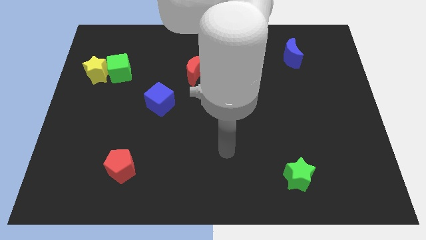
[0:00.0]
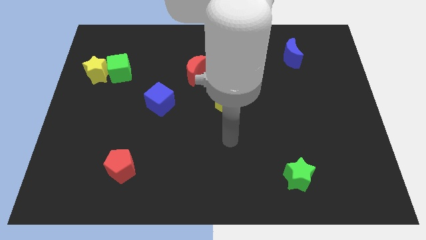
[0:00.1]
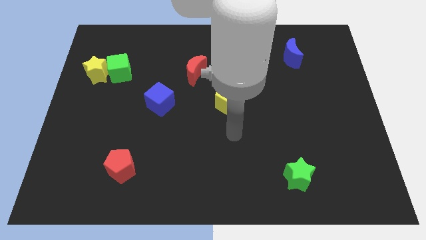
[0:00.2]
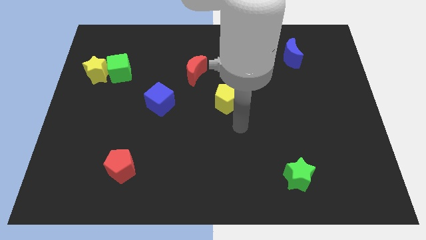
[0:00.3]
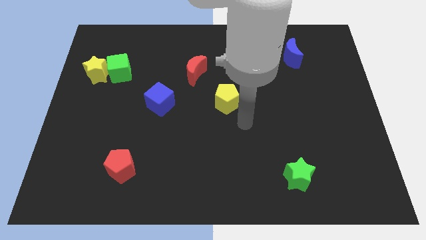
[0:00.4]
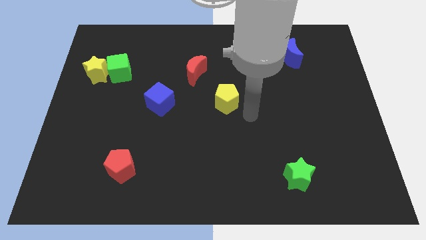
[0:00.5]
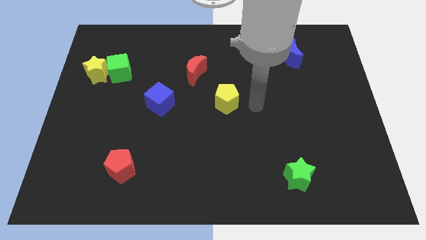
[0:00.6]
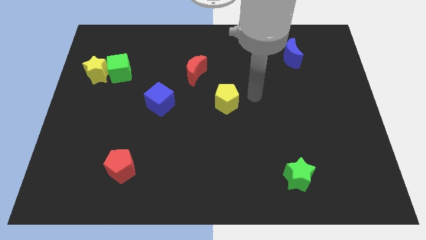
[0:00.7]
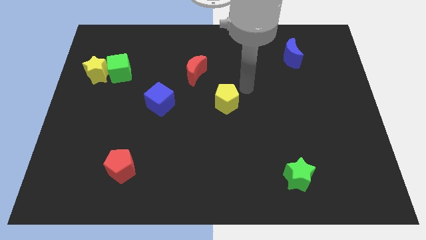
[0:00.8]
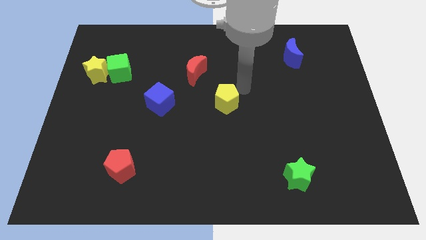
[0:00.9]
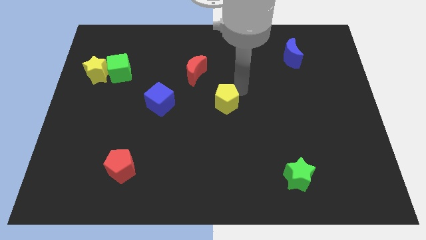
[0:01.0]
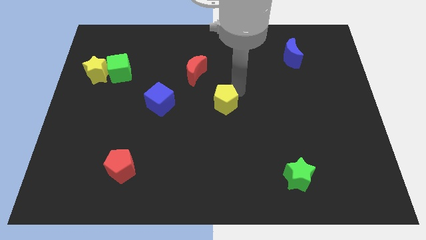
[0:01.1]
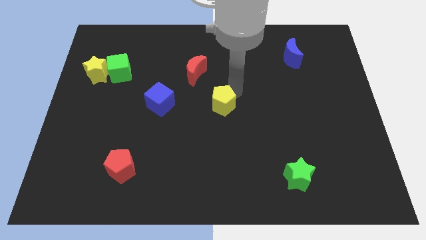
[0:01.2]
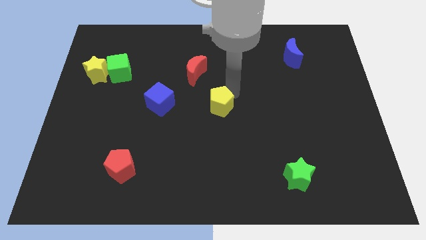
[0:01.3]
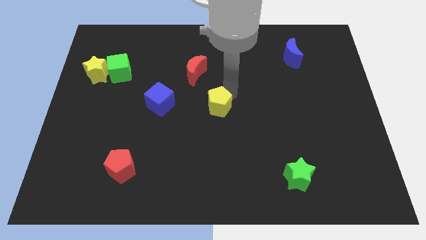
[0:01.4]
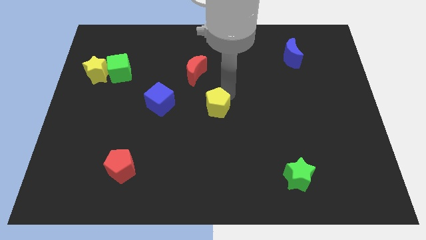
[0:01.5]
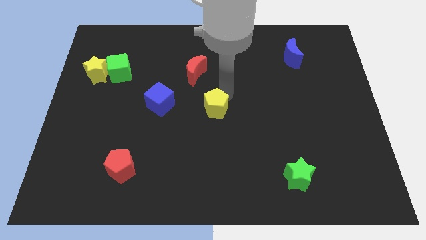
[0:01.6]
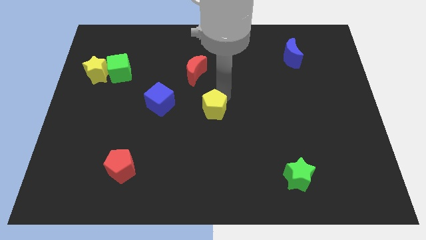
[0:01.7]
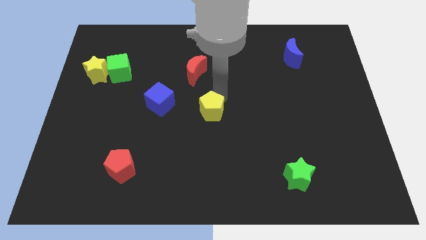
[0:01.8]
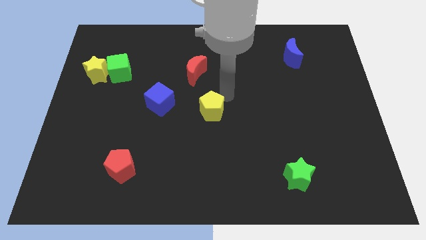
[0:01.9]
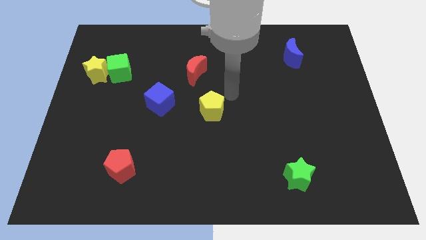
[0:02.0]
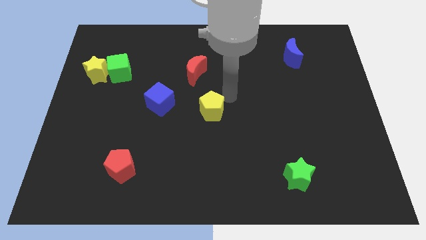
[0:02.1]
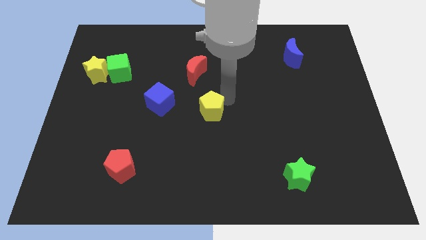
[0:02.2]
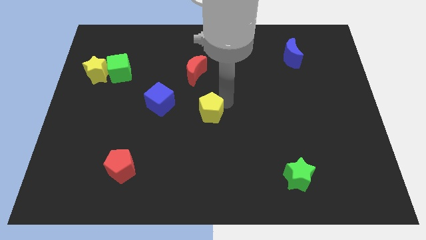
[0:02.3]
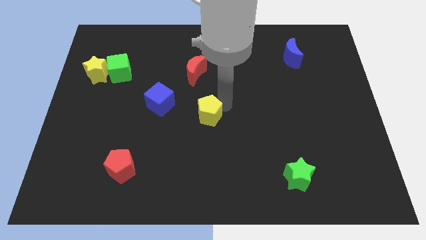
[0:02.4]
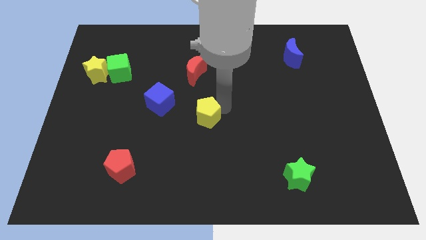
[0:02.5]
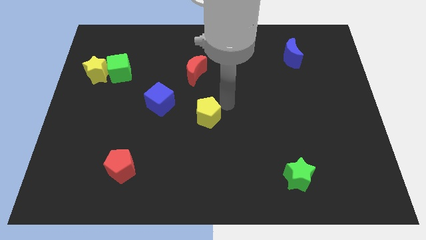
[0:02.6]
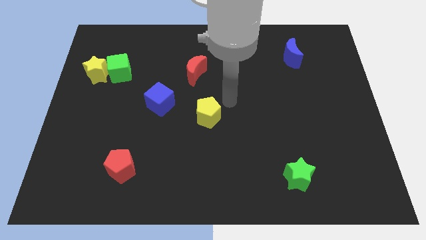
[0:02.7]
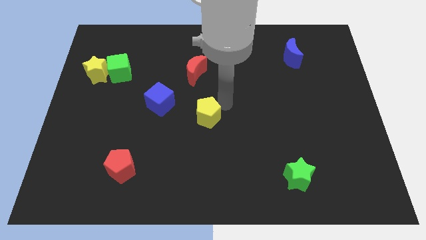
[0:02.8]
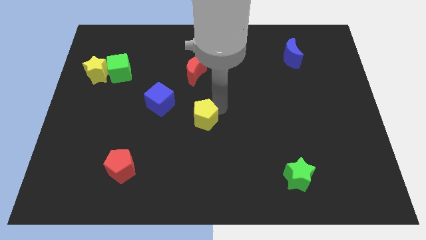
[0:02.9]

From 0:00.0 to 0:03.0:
slightly slide the yellow pentagon diagonally downwards and to the left

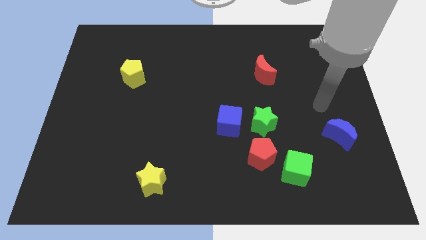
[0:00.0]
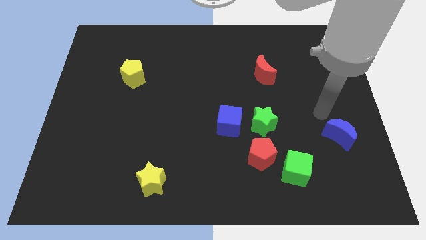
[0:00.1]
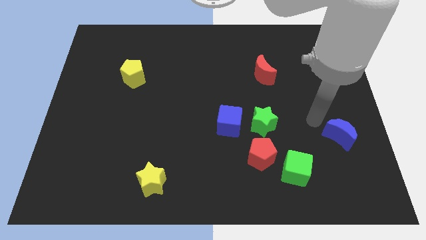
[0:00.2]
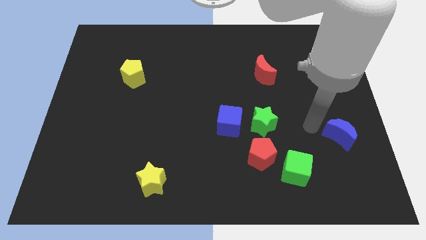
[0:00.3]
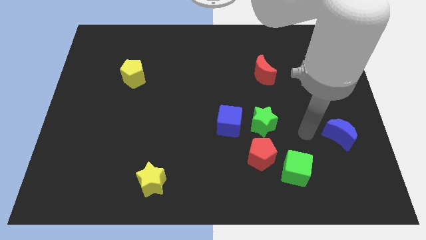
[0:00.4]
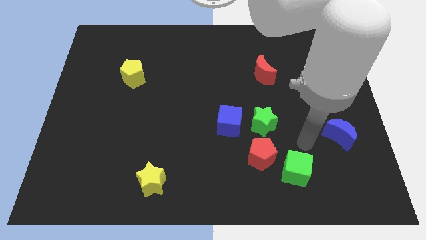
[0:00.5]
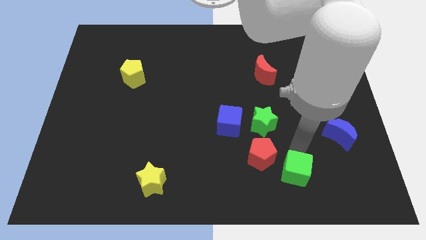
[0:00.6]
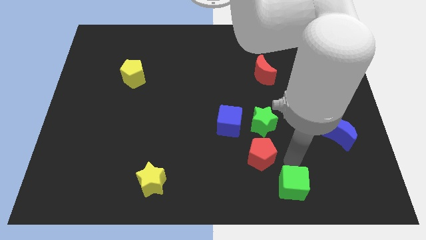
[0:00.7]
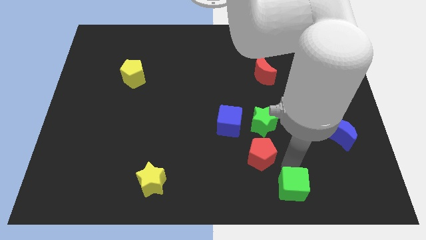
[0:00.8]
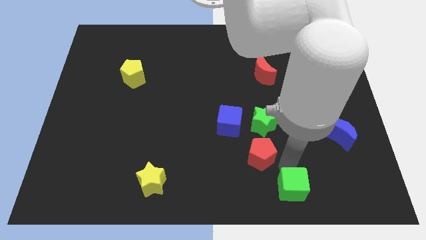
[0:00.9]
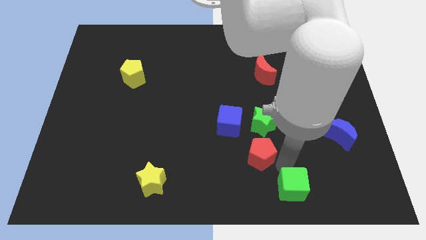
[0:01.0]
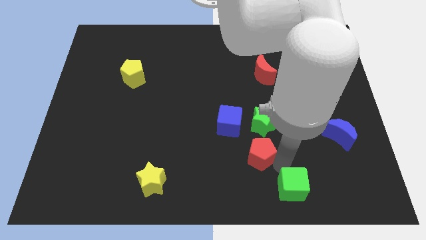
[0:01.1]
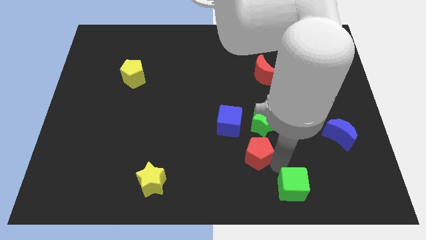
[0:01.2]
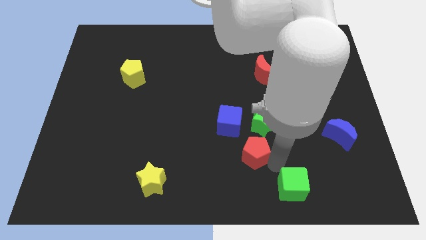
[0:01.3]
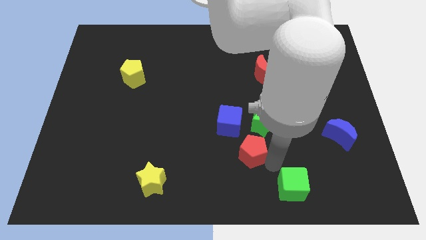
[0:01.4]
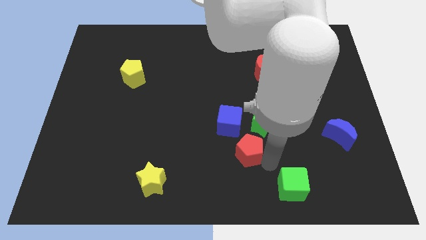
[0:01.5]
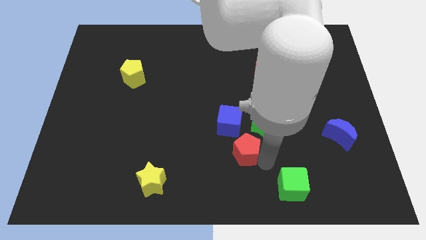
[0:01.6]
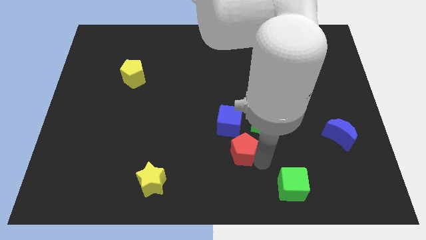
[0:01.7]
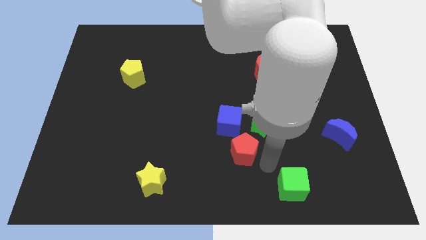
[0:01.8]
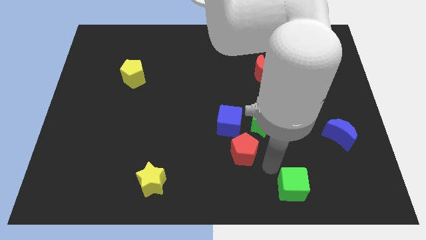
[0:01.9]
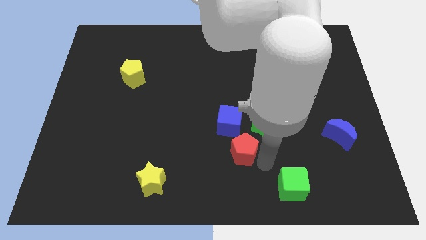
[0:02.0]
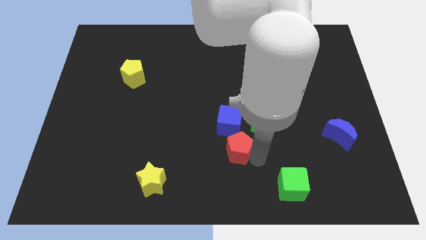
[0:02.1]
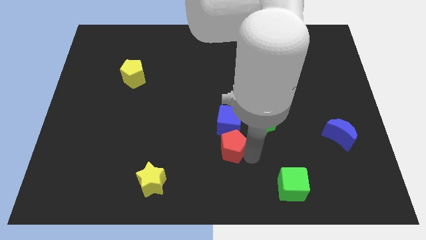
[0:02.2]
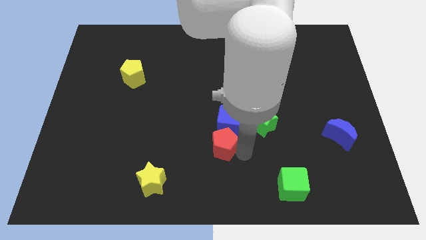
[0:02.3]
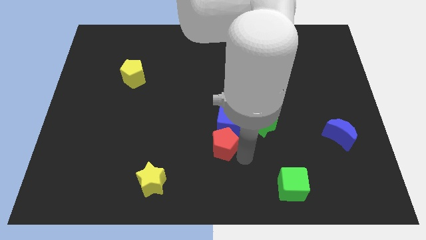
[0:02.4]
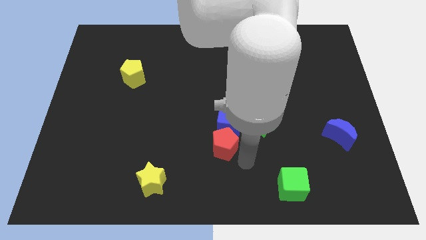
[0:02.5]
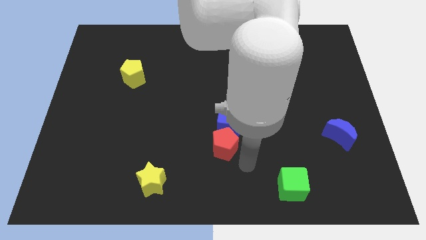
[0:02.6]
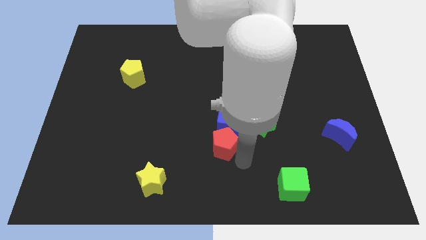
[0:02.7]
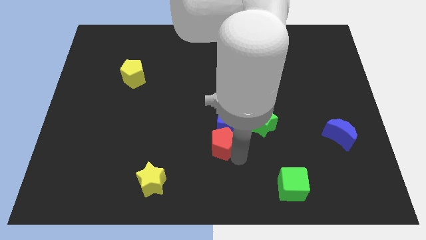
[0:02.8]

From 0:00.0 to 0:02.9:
move the red pentagon diagonally up and to the left slightly

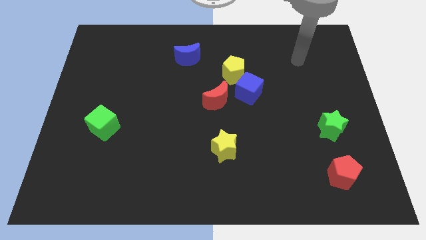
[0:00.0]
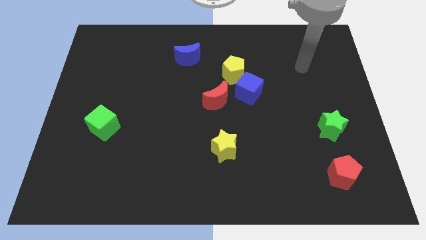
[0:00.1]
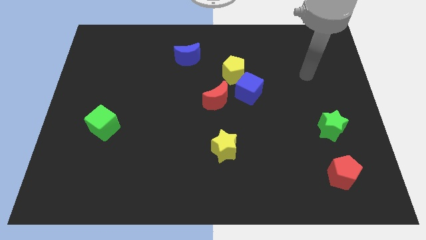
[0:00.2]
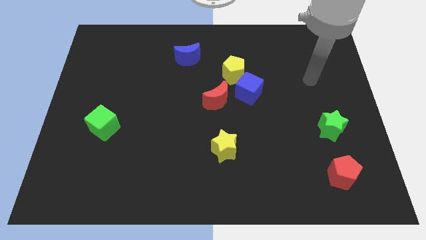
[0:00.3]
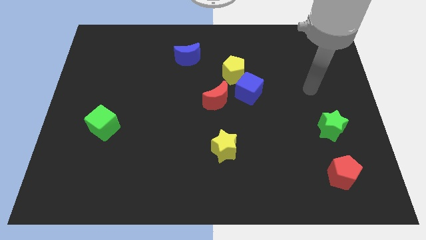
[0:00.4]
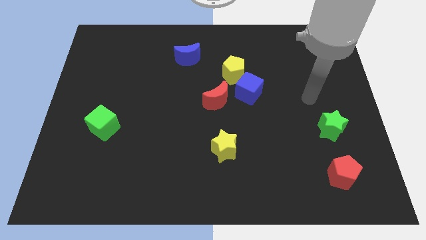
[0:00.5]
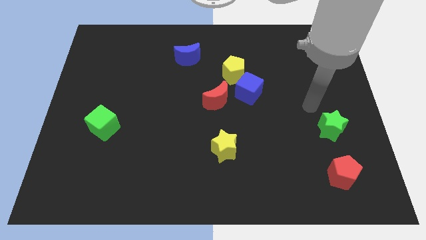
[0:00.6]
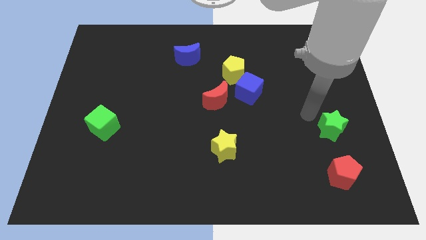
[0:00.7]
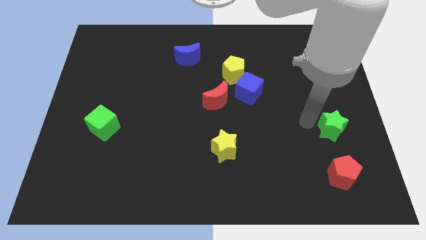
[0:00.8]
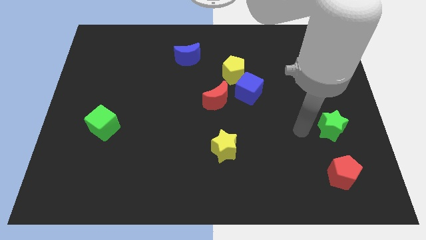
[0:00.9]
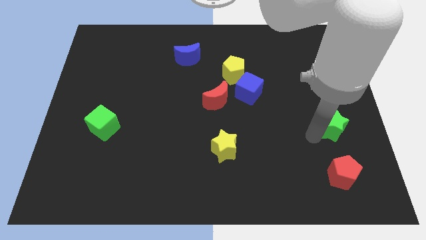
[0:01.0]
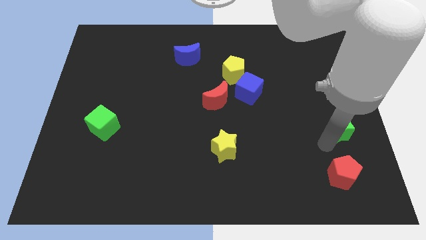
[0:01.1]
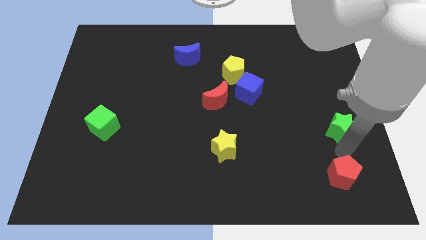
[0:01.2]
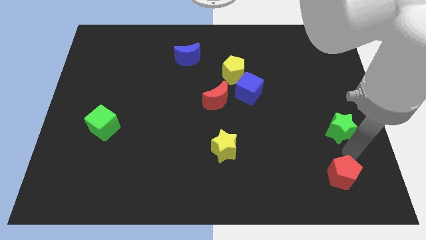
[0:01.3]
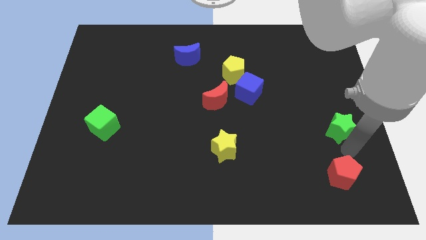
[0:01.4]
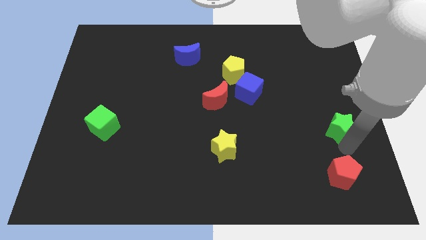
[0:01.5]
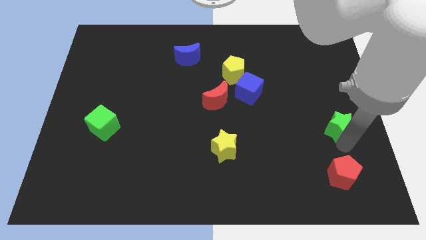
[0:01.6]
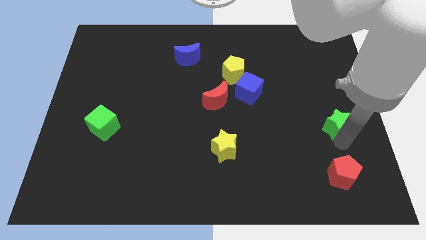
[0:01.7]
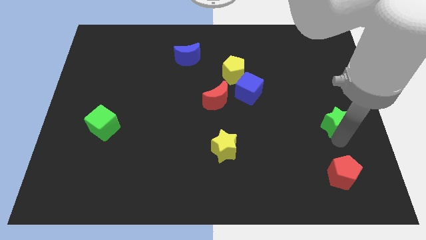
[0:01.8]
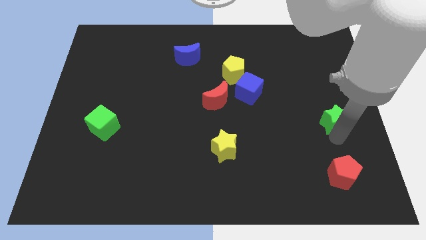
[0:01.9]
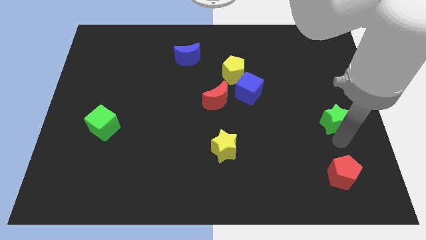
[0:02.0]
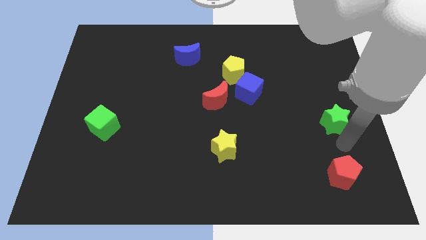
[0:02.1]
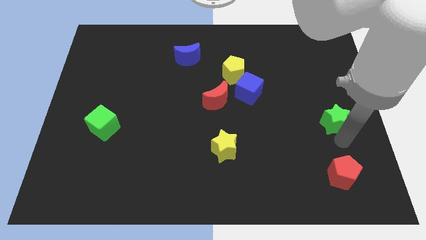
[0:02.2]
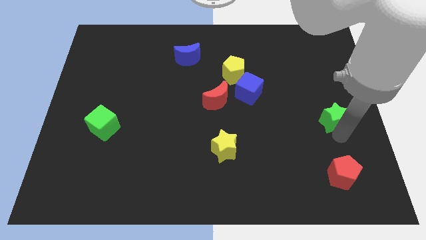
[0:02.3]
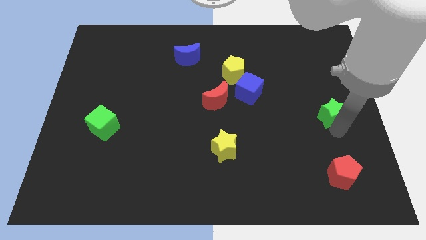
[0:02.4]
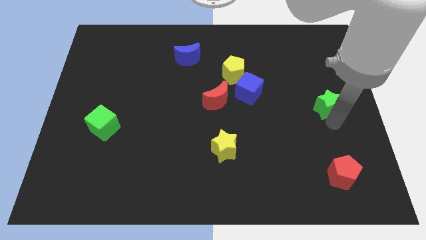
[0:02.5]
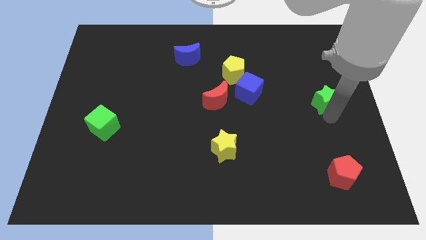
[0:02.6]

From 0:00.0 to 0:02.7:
slide the green star a little bit up
